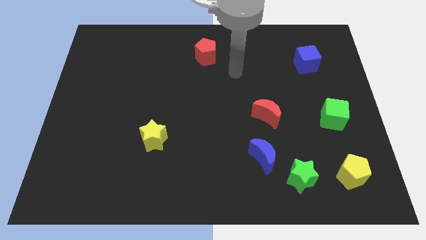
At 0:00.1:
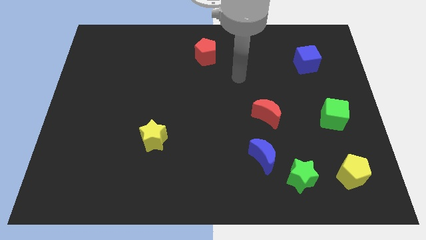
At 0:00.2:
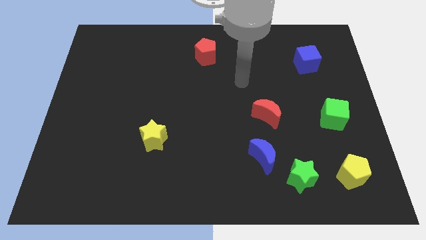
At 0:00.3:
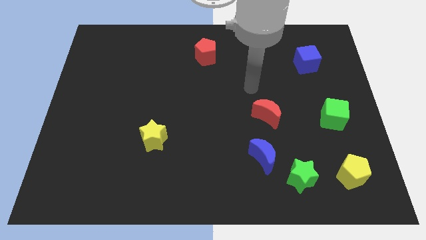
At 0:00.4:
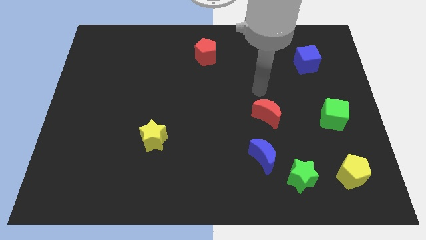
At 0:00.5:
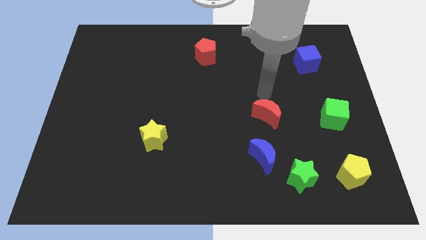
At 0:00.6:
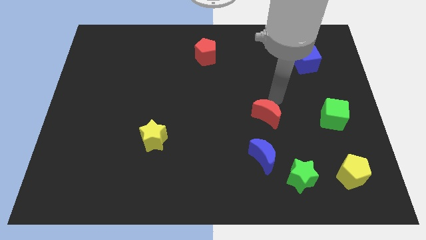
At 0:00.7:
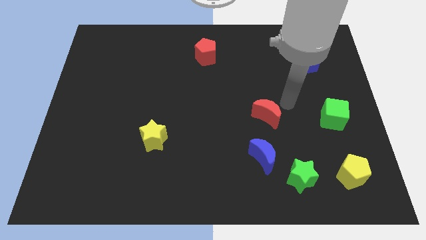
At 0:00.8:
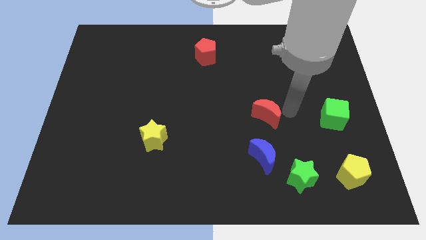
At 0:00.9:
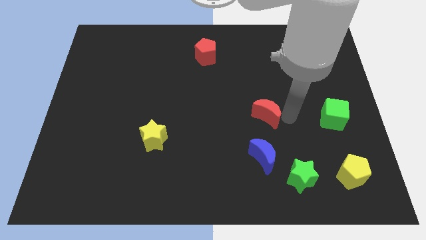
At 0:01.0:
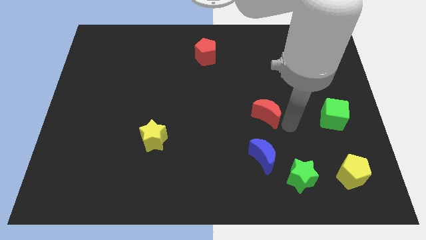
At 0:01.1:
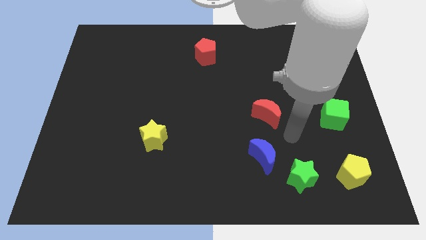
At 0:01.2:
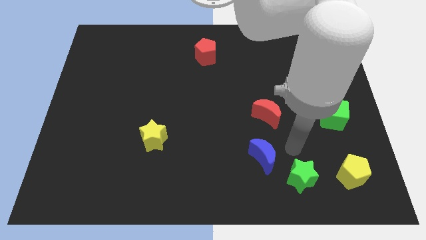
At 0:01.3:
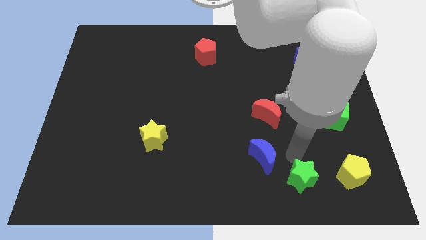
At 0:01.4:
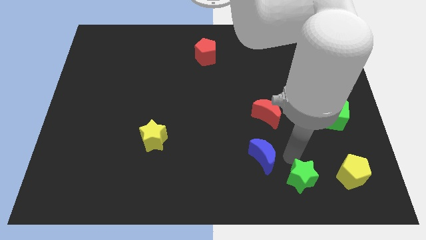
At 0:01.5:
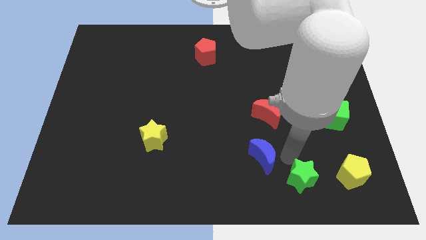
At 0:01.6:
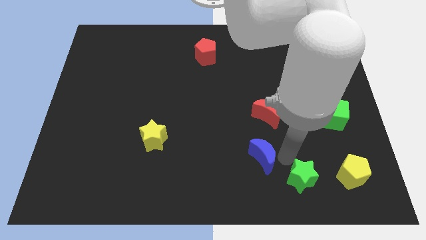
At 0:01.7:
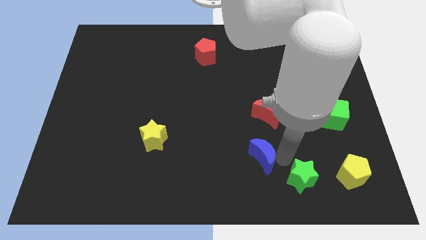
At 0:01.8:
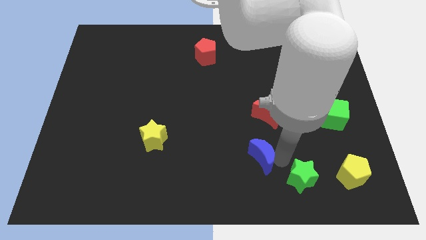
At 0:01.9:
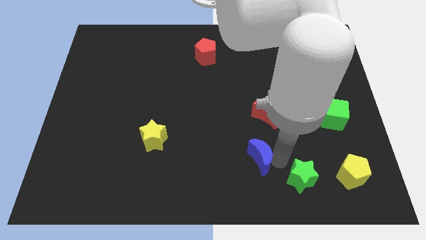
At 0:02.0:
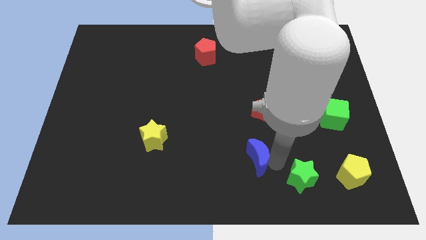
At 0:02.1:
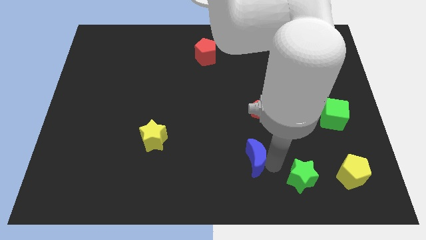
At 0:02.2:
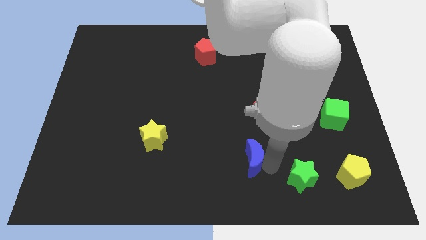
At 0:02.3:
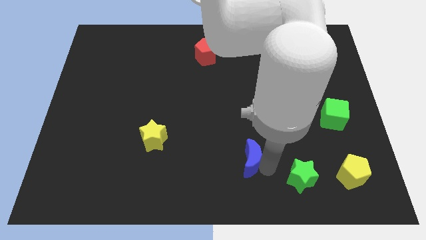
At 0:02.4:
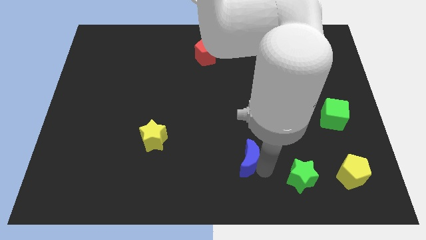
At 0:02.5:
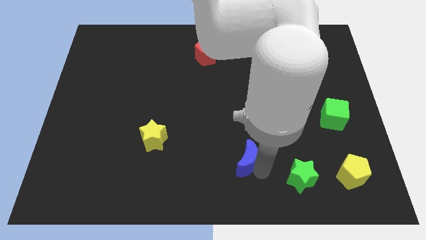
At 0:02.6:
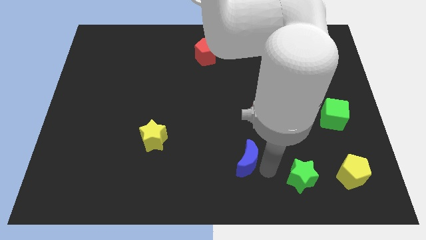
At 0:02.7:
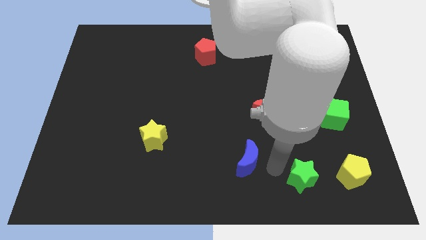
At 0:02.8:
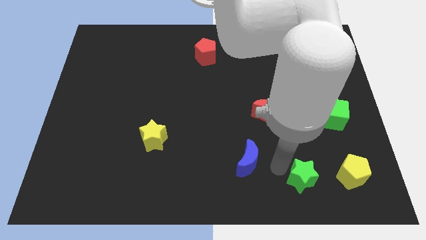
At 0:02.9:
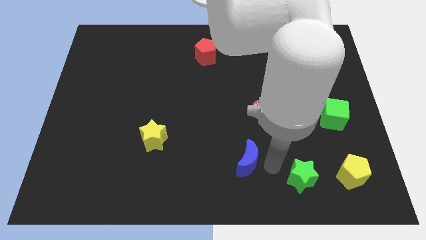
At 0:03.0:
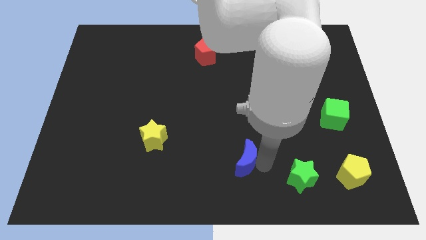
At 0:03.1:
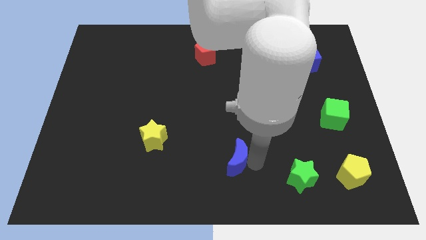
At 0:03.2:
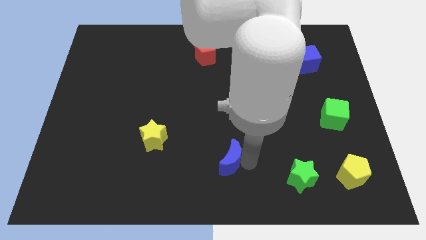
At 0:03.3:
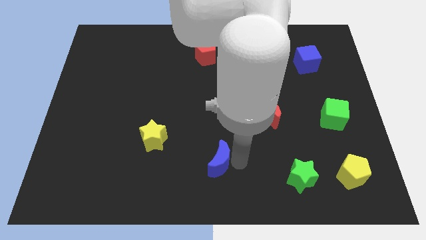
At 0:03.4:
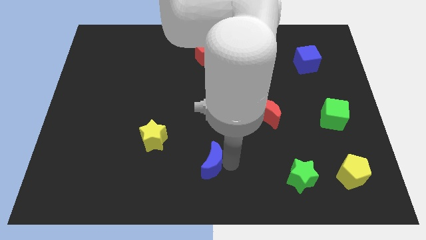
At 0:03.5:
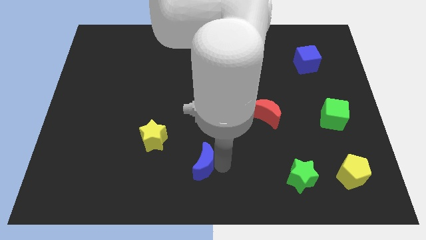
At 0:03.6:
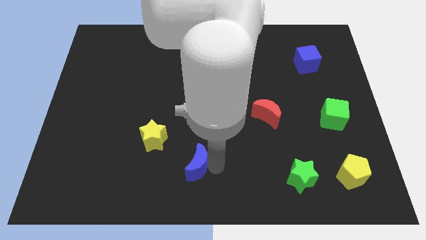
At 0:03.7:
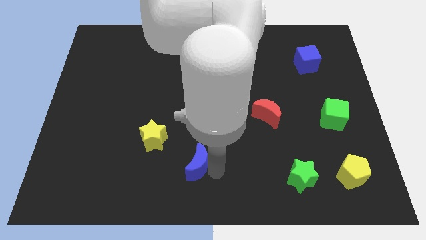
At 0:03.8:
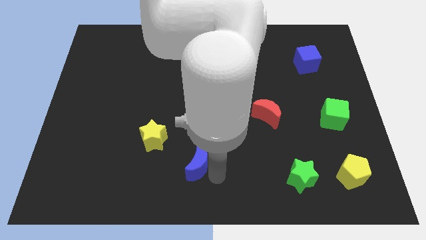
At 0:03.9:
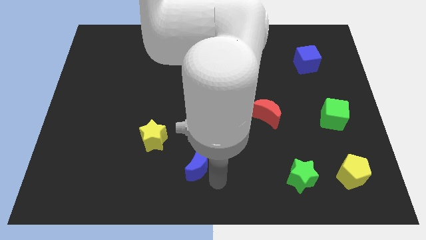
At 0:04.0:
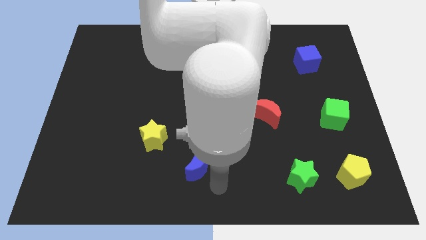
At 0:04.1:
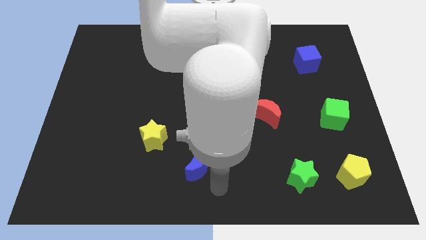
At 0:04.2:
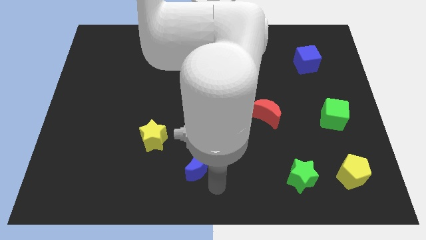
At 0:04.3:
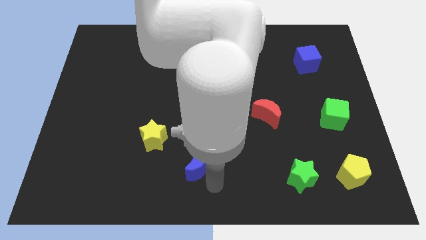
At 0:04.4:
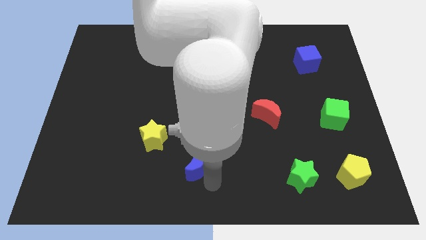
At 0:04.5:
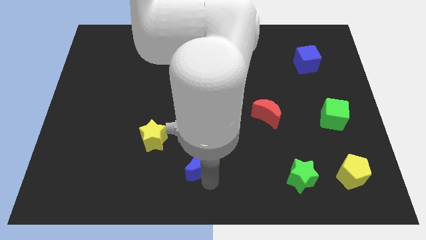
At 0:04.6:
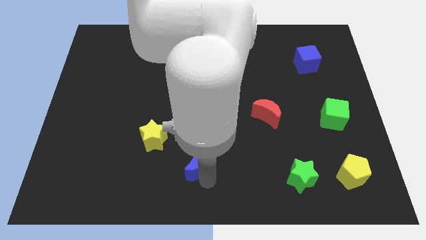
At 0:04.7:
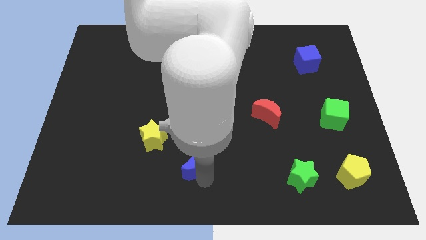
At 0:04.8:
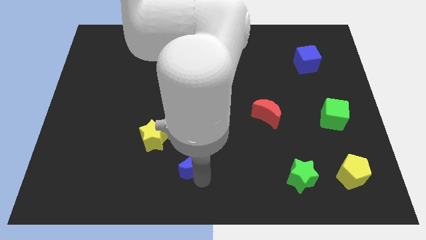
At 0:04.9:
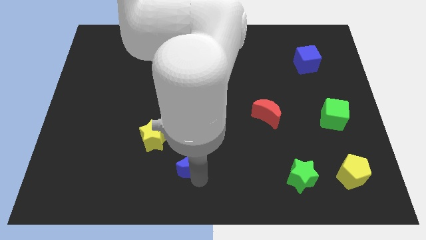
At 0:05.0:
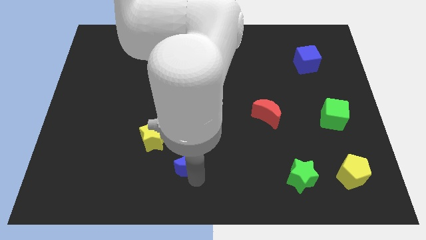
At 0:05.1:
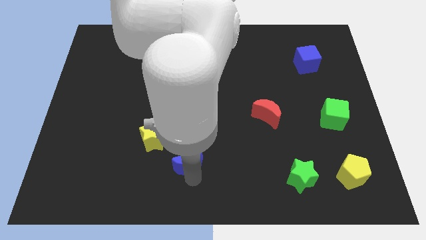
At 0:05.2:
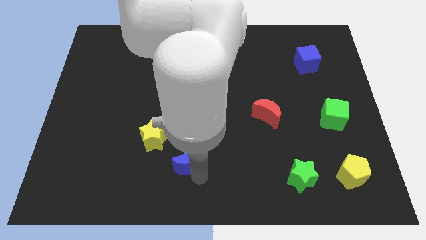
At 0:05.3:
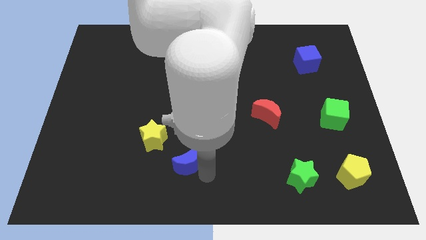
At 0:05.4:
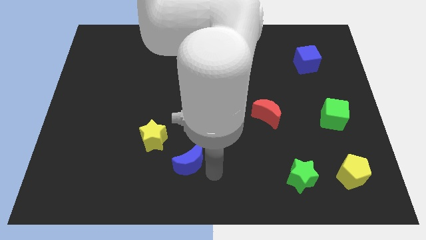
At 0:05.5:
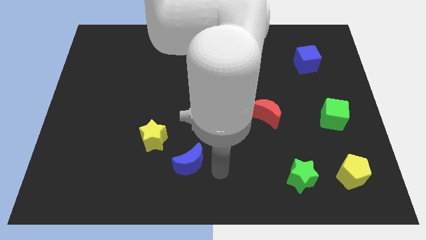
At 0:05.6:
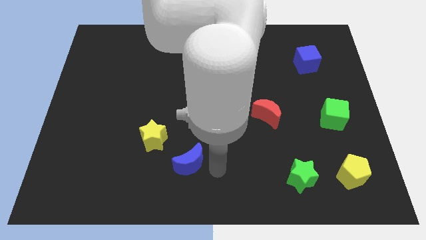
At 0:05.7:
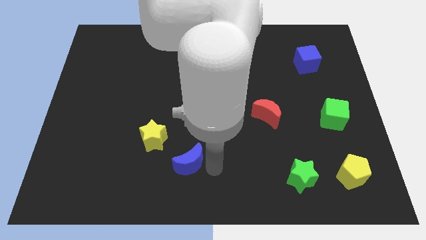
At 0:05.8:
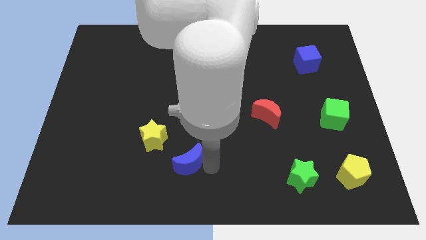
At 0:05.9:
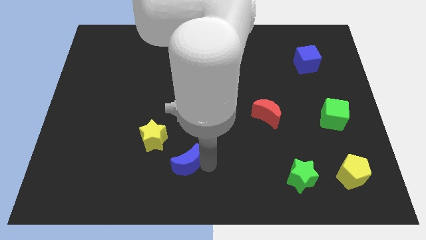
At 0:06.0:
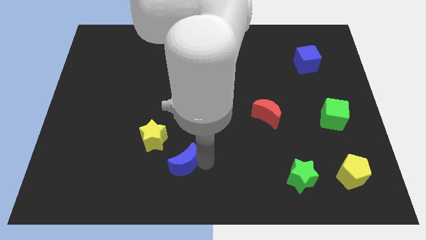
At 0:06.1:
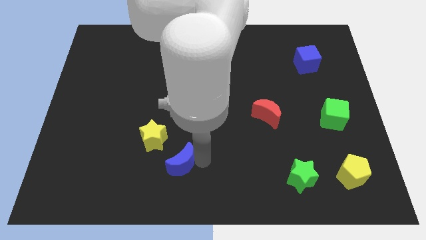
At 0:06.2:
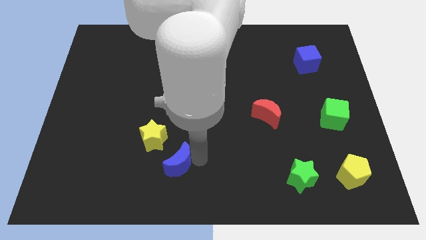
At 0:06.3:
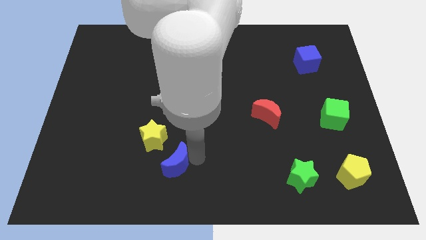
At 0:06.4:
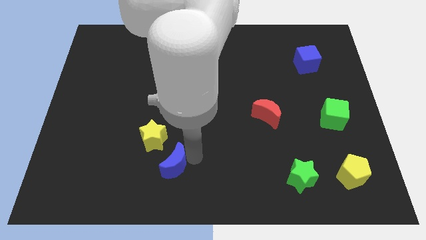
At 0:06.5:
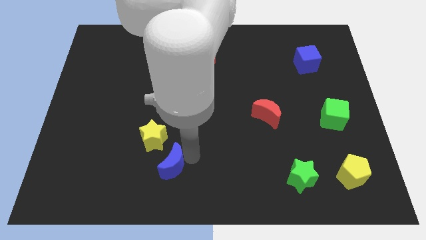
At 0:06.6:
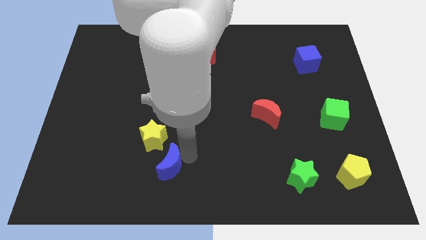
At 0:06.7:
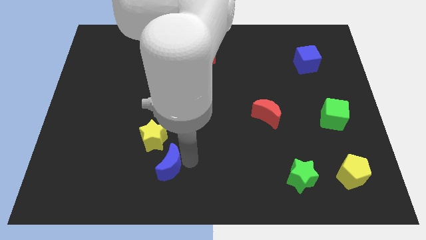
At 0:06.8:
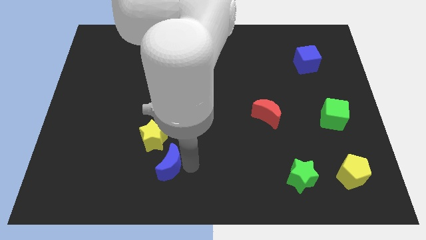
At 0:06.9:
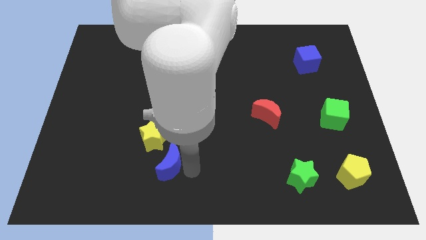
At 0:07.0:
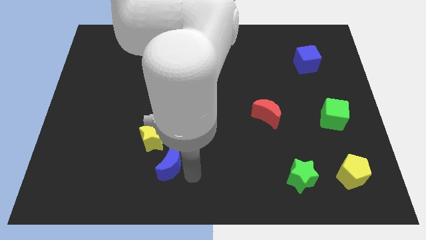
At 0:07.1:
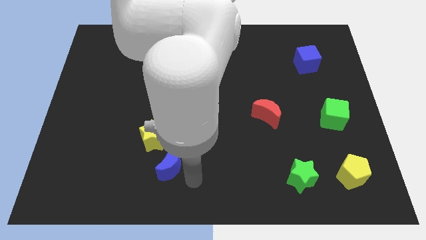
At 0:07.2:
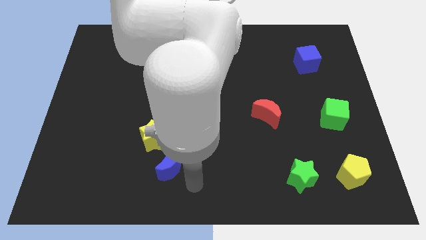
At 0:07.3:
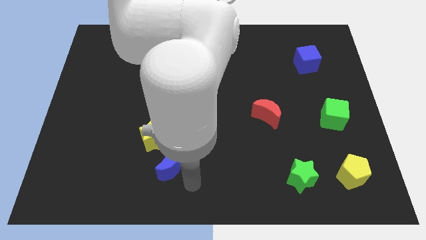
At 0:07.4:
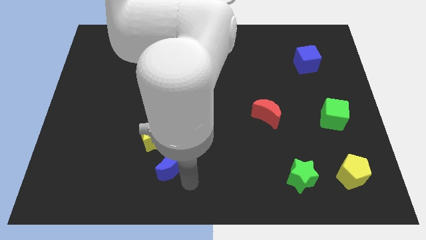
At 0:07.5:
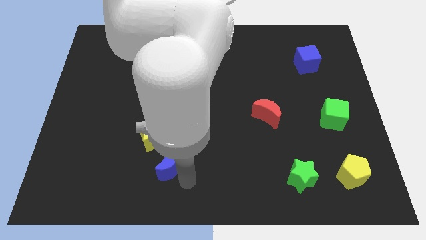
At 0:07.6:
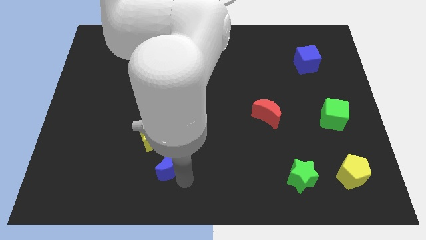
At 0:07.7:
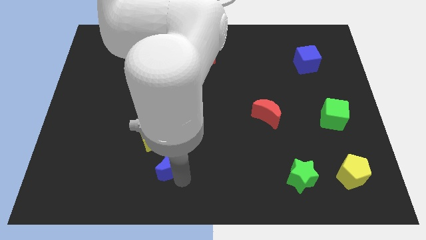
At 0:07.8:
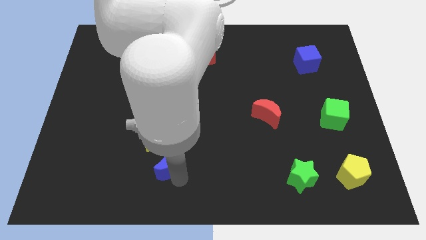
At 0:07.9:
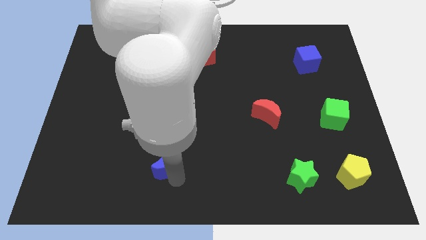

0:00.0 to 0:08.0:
push the blue moon to the left

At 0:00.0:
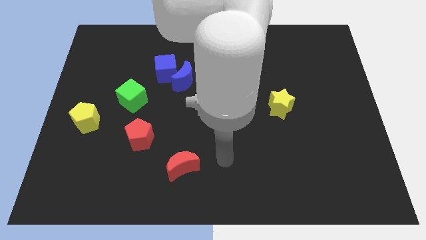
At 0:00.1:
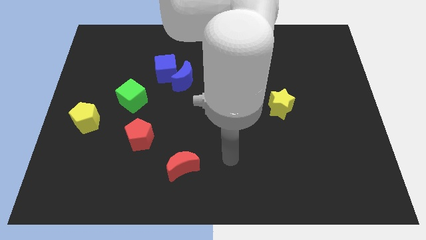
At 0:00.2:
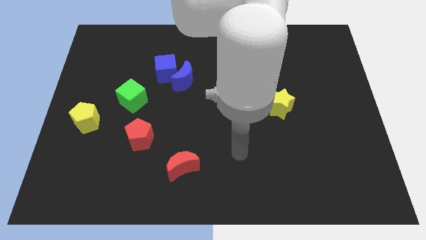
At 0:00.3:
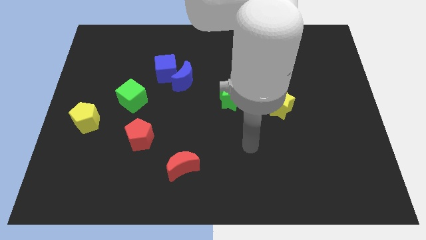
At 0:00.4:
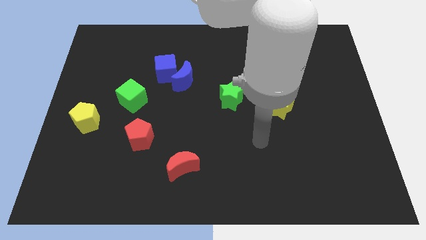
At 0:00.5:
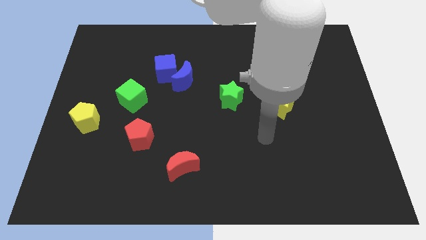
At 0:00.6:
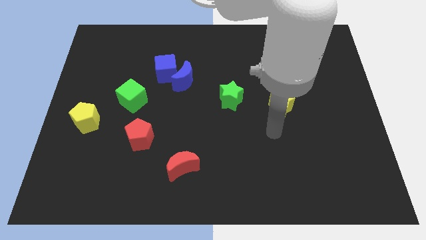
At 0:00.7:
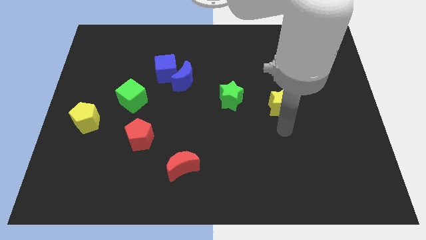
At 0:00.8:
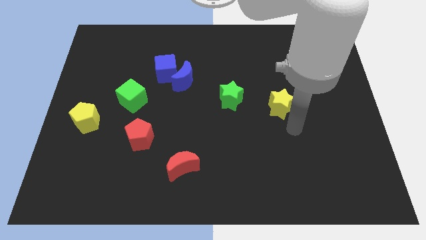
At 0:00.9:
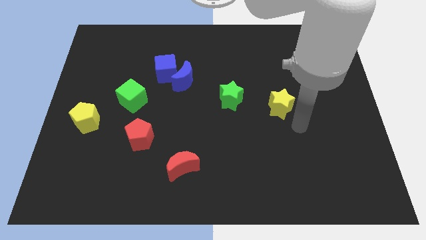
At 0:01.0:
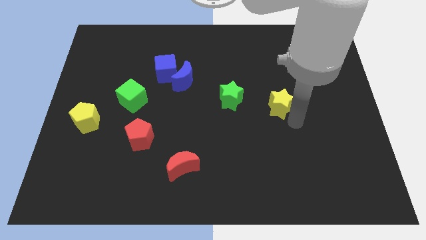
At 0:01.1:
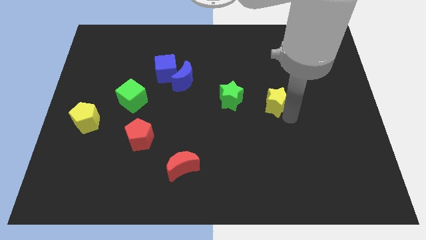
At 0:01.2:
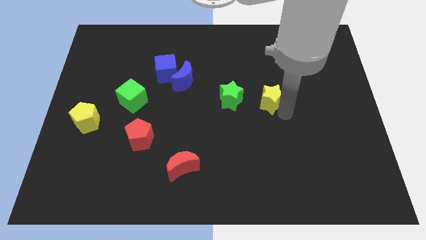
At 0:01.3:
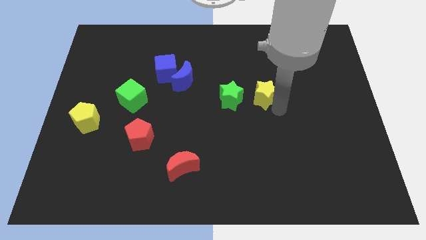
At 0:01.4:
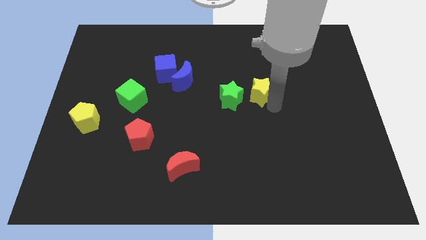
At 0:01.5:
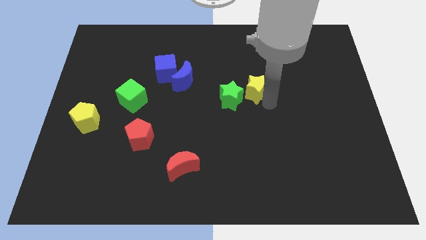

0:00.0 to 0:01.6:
slide the yellow star diagonally upwards and to the left a bit
